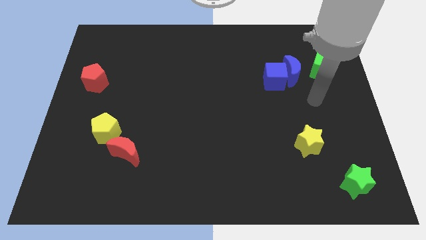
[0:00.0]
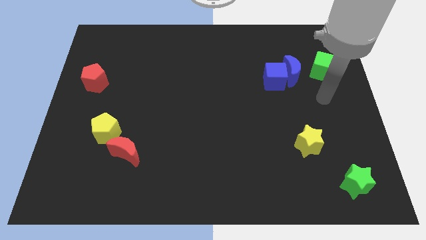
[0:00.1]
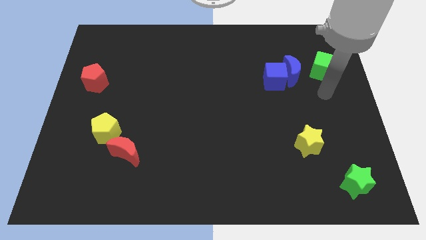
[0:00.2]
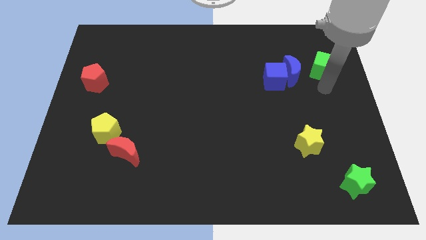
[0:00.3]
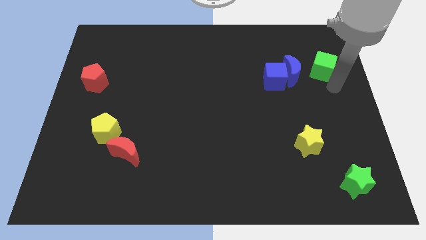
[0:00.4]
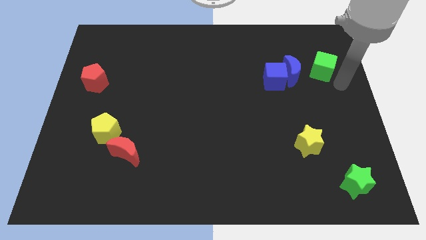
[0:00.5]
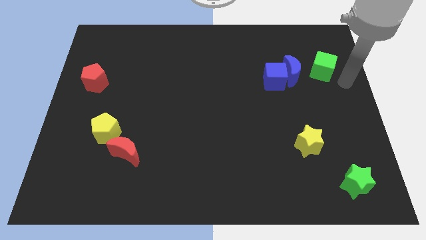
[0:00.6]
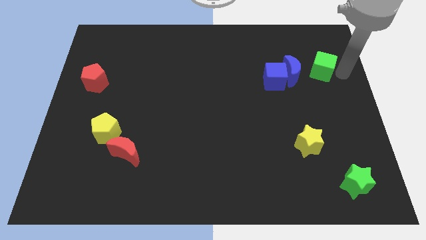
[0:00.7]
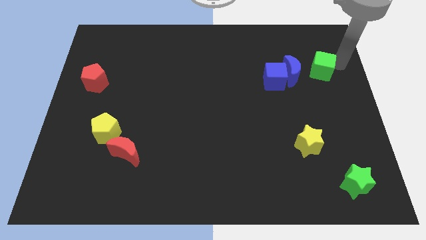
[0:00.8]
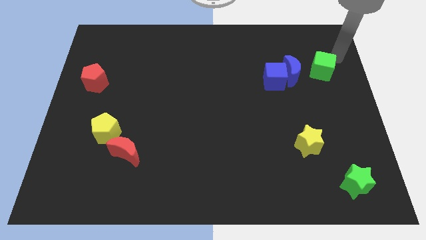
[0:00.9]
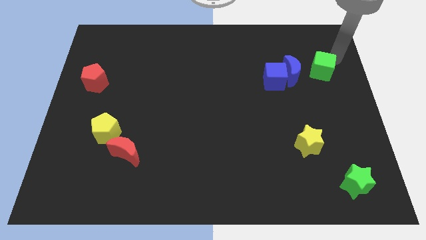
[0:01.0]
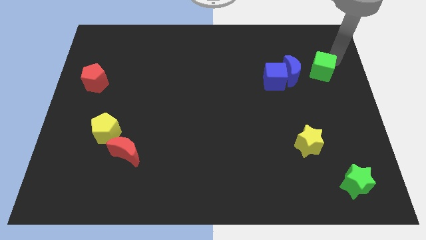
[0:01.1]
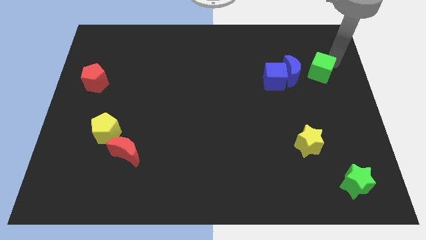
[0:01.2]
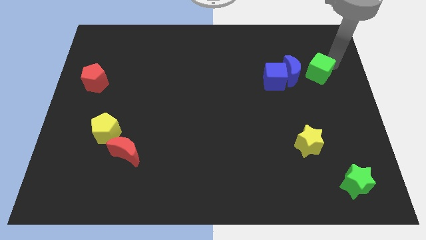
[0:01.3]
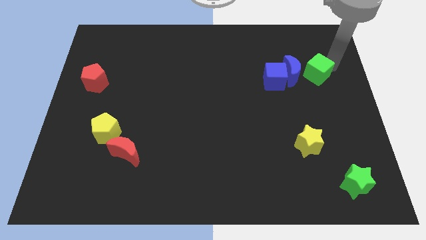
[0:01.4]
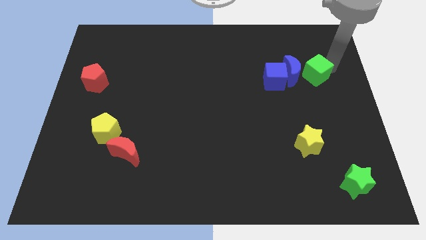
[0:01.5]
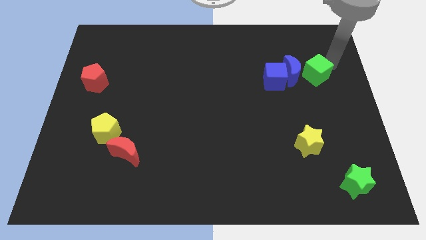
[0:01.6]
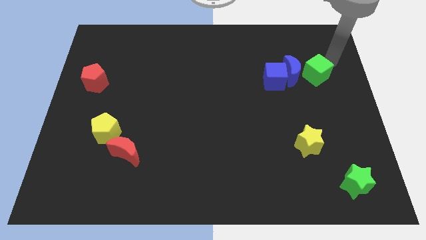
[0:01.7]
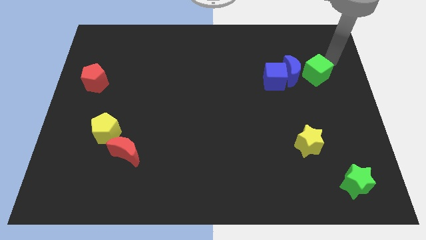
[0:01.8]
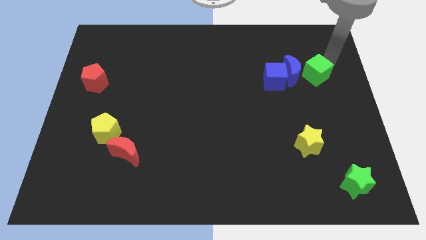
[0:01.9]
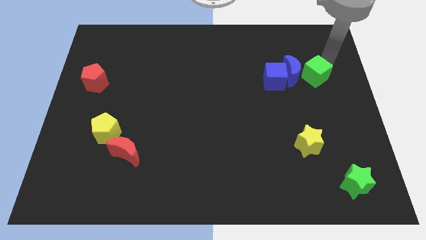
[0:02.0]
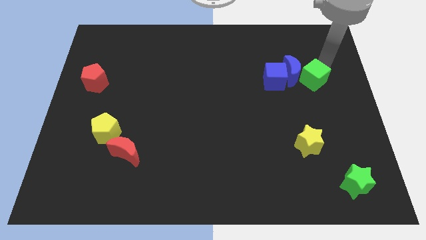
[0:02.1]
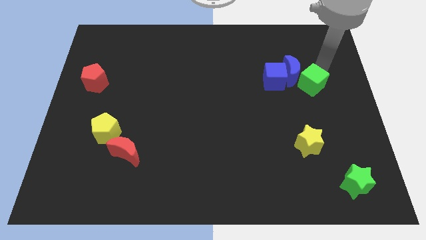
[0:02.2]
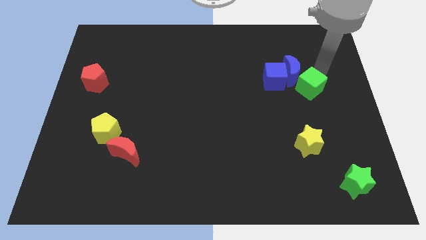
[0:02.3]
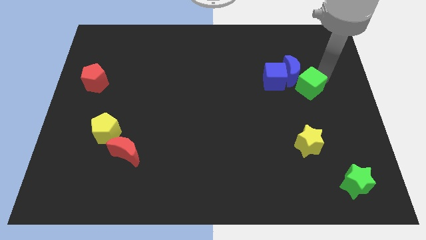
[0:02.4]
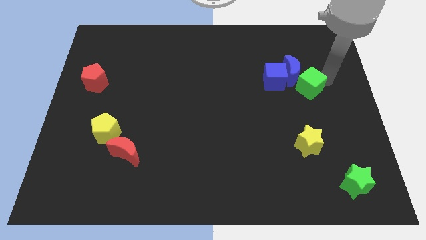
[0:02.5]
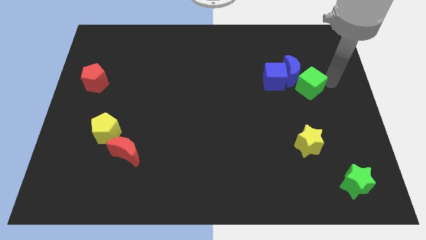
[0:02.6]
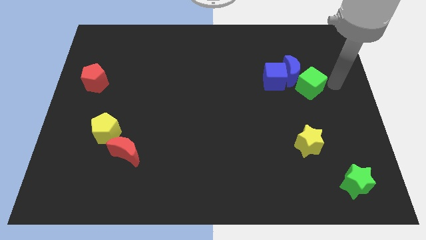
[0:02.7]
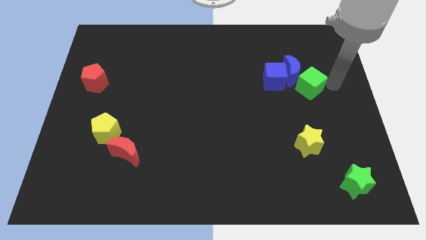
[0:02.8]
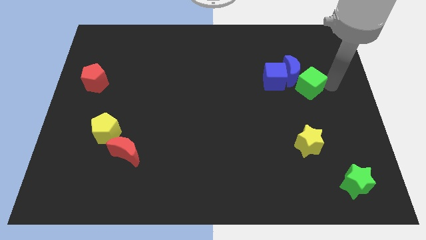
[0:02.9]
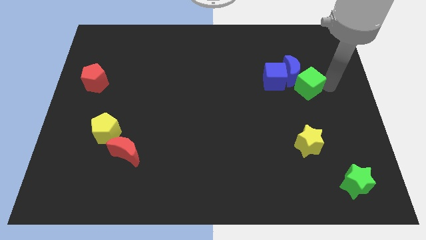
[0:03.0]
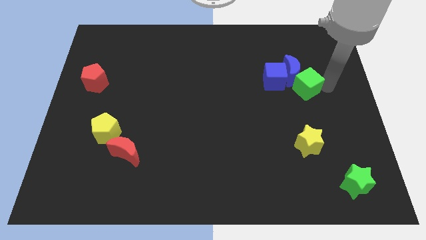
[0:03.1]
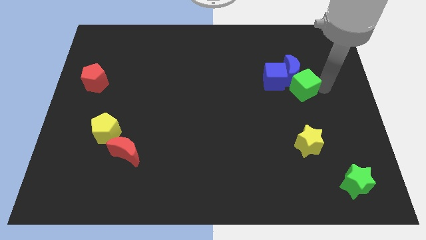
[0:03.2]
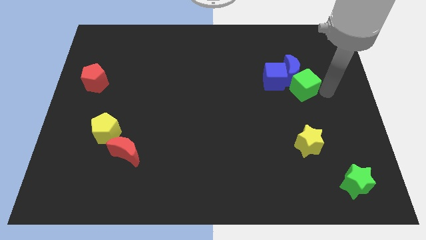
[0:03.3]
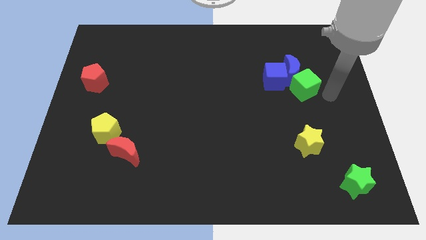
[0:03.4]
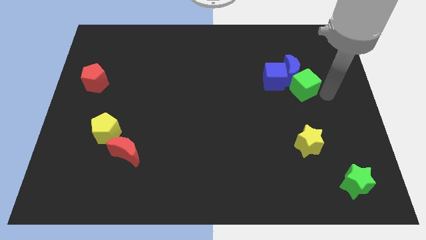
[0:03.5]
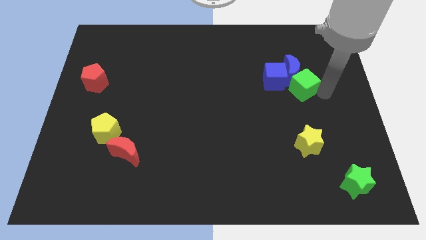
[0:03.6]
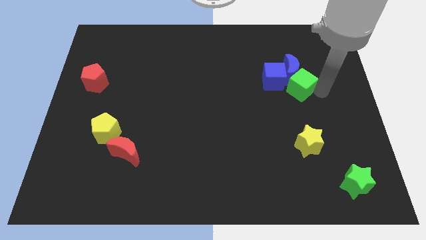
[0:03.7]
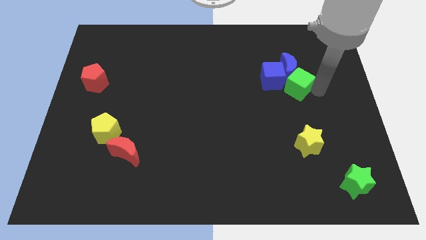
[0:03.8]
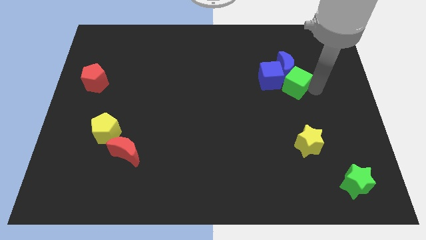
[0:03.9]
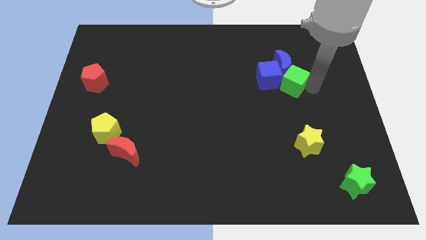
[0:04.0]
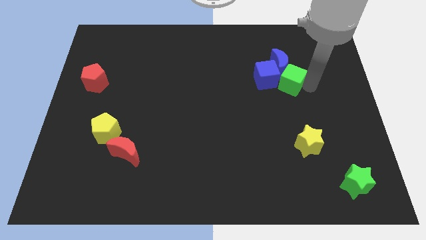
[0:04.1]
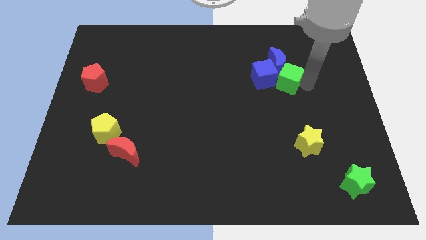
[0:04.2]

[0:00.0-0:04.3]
push the green cube close to the blue cube

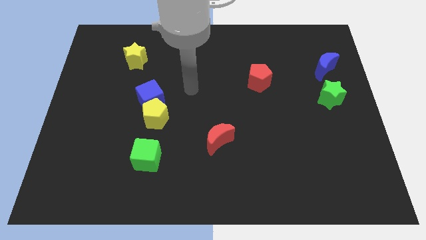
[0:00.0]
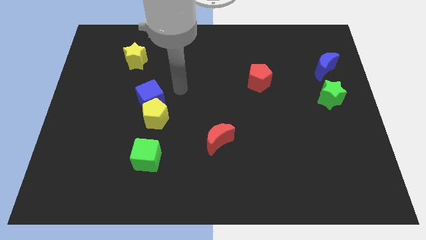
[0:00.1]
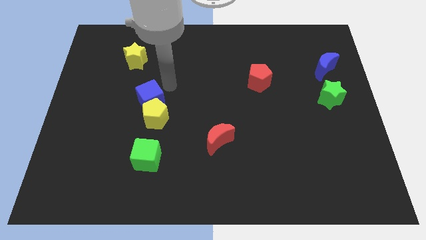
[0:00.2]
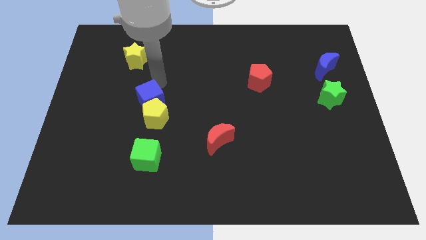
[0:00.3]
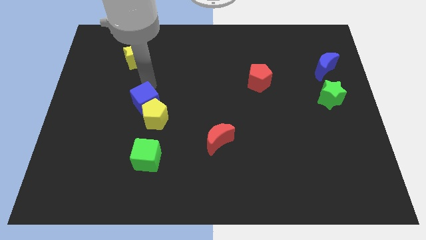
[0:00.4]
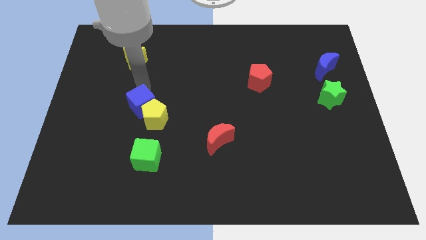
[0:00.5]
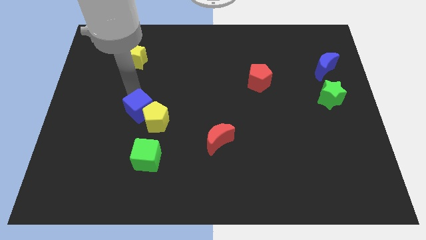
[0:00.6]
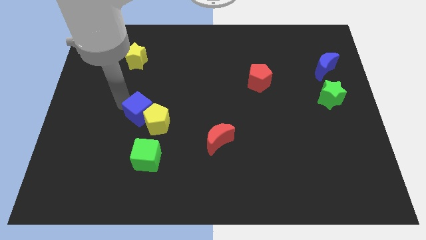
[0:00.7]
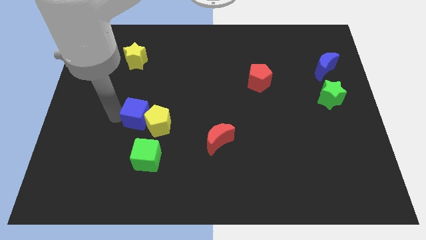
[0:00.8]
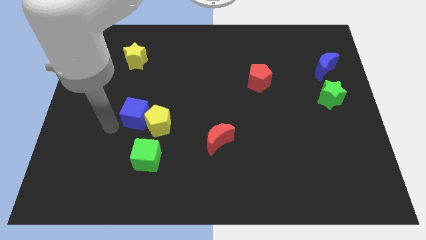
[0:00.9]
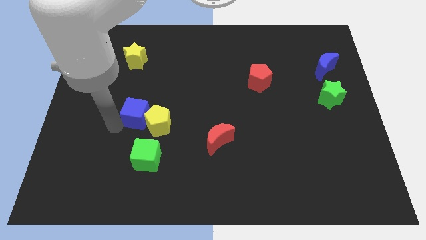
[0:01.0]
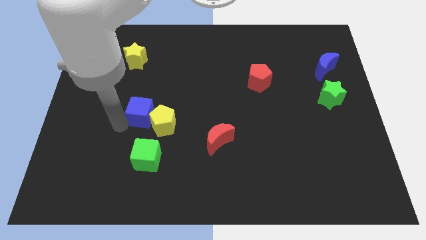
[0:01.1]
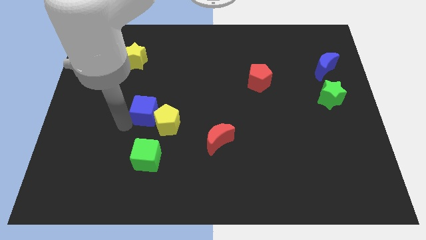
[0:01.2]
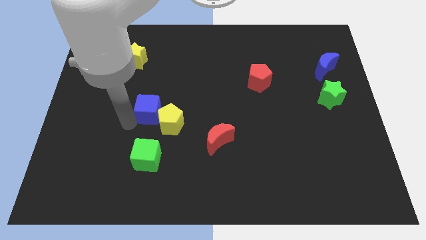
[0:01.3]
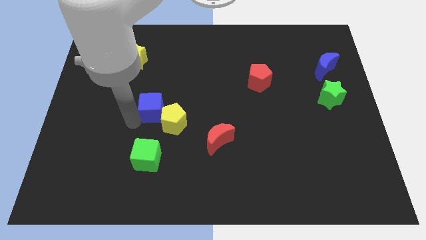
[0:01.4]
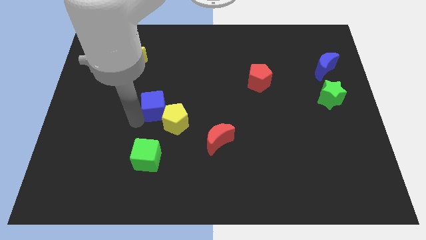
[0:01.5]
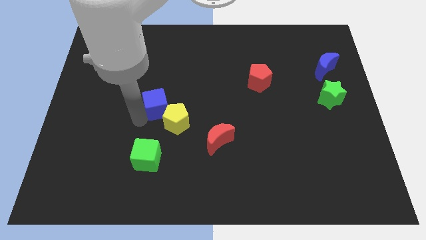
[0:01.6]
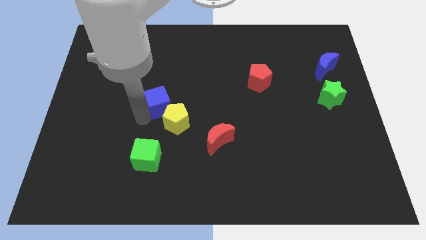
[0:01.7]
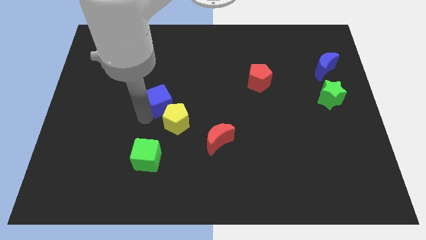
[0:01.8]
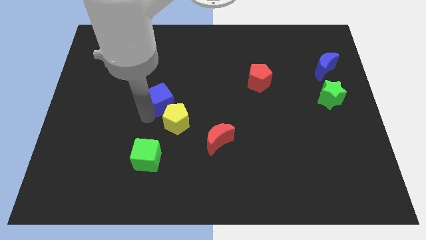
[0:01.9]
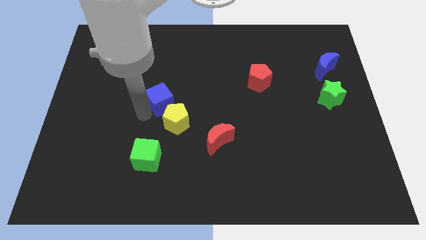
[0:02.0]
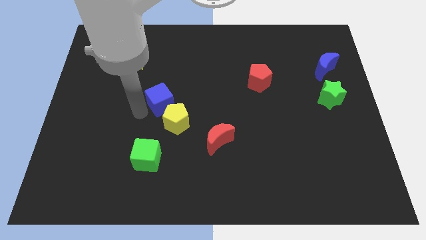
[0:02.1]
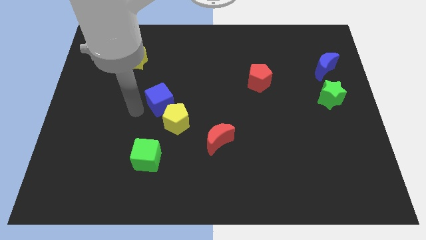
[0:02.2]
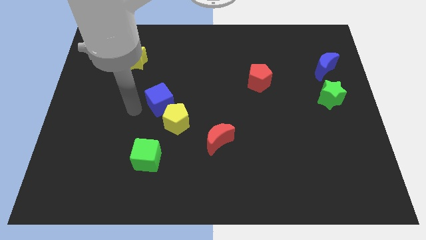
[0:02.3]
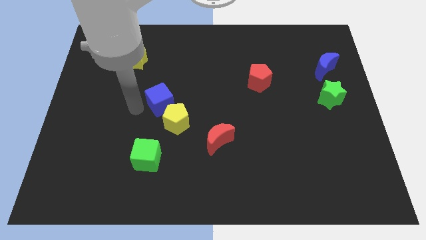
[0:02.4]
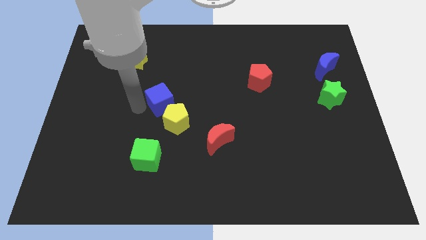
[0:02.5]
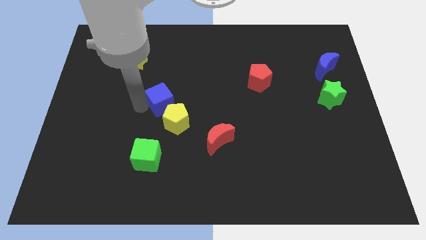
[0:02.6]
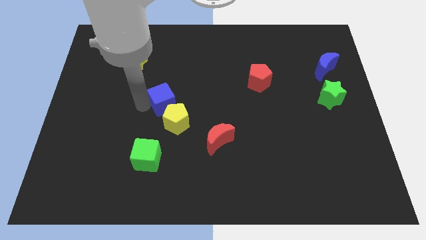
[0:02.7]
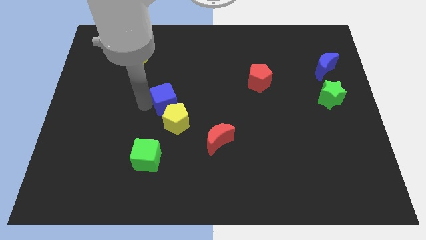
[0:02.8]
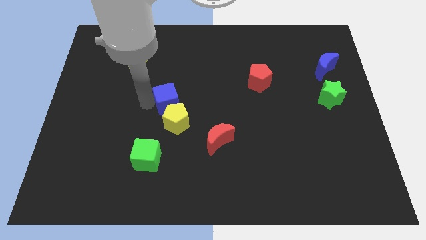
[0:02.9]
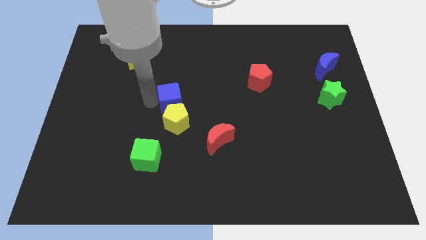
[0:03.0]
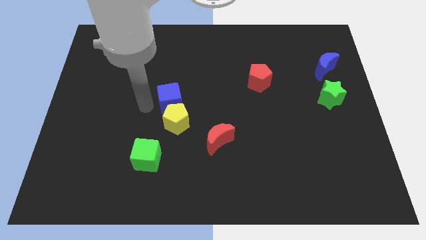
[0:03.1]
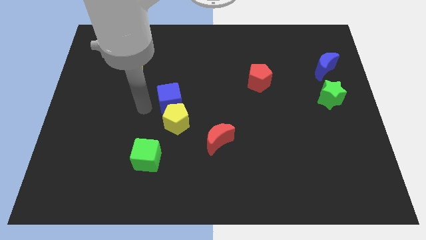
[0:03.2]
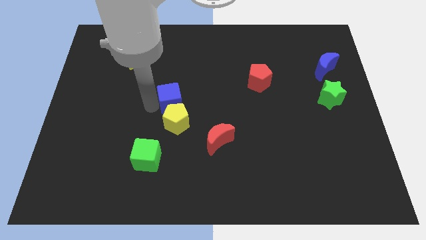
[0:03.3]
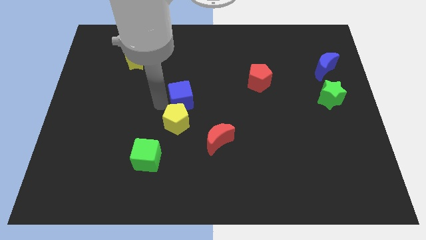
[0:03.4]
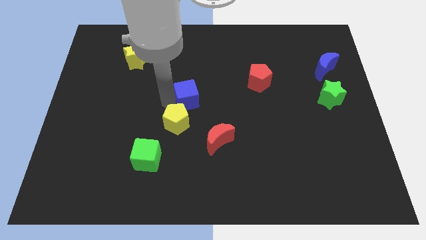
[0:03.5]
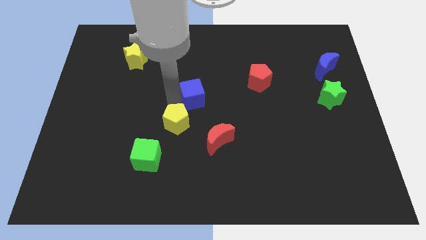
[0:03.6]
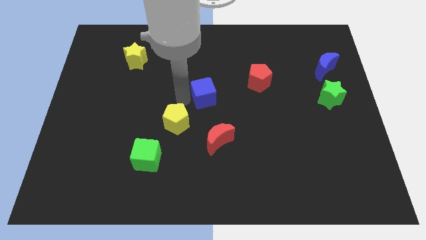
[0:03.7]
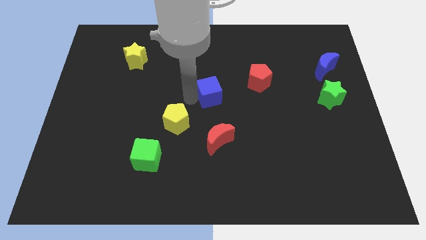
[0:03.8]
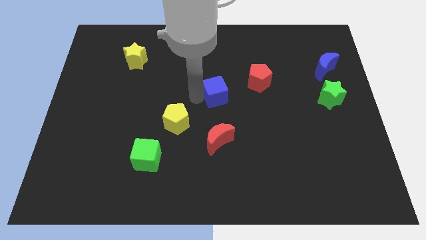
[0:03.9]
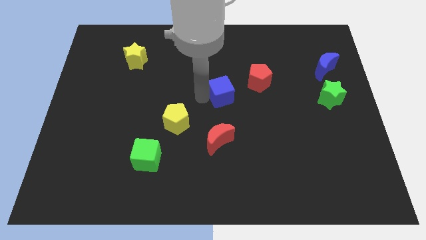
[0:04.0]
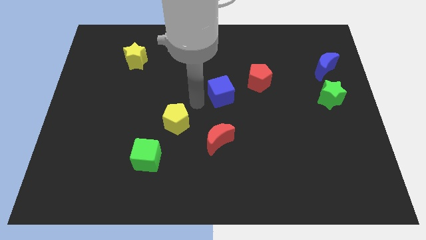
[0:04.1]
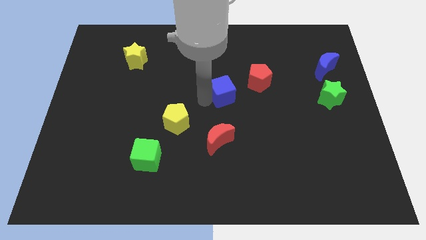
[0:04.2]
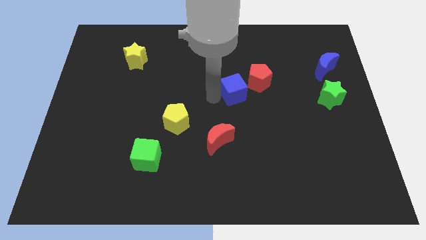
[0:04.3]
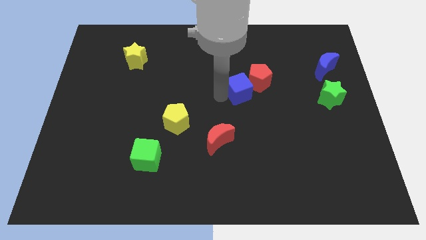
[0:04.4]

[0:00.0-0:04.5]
push the blue cube to the red pentagon
